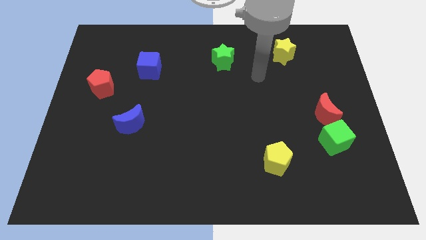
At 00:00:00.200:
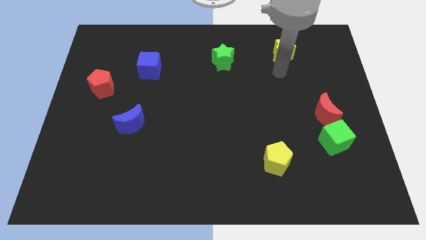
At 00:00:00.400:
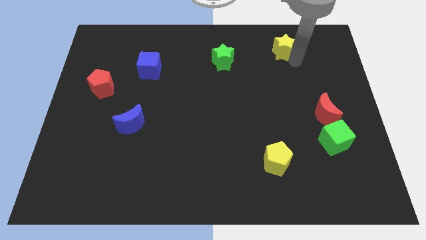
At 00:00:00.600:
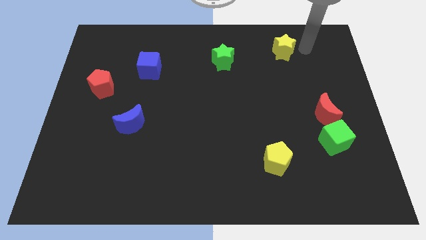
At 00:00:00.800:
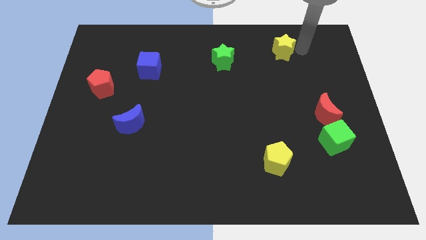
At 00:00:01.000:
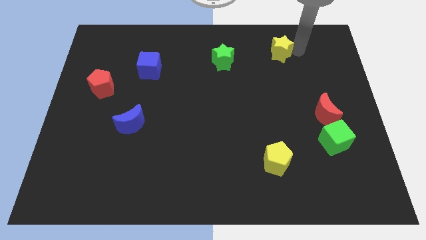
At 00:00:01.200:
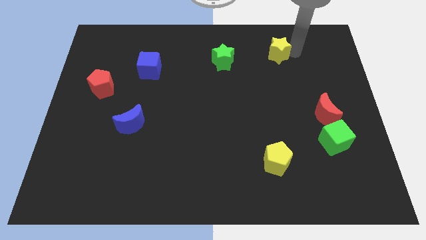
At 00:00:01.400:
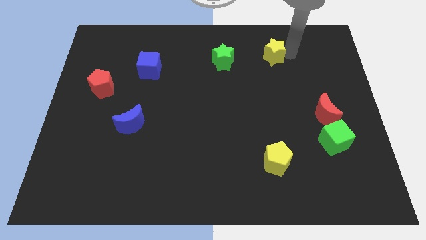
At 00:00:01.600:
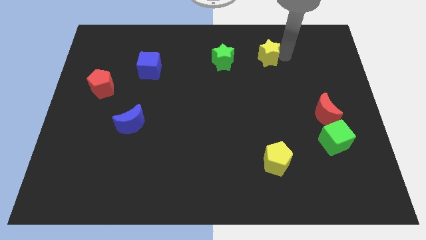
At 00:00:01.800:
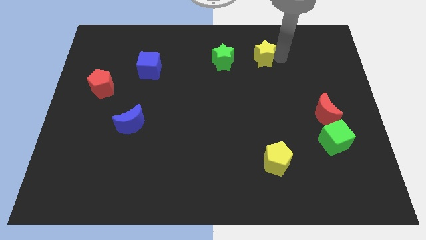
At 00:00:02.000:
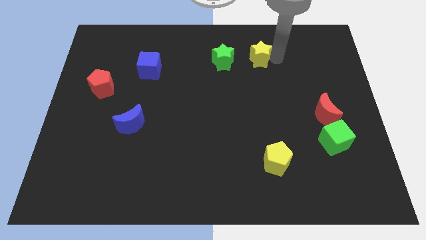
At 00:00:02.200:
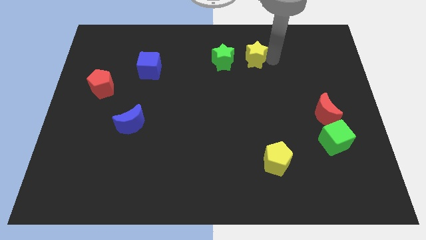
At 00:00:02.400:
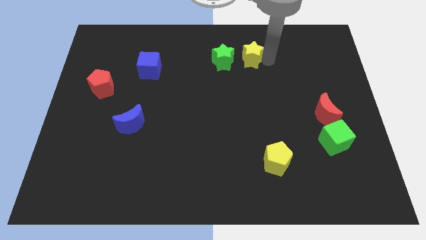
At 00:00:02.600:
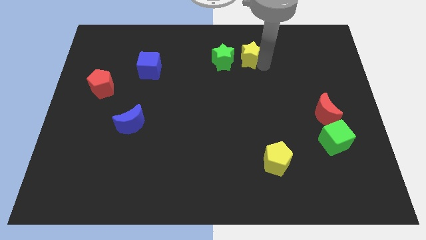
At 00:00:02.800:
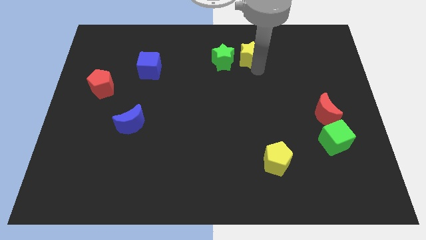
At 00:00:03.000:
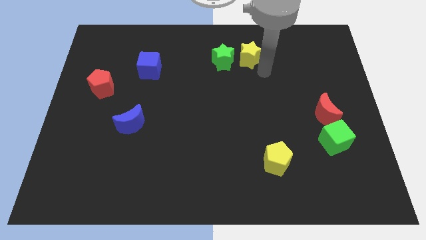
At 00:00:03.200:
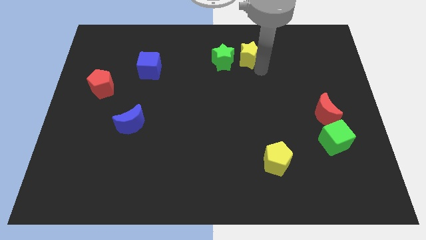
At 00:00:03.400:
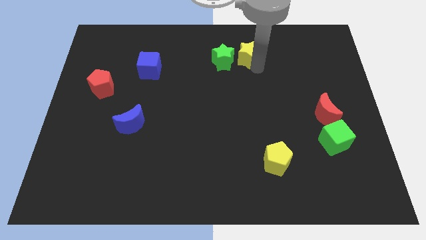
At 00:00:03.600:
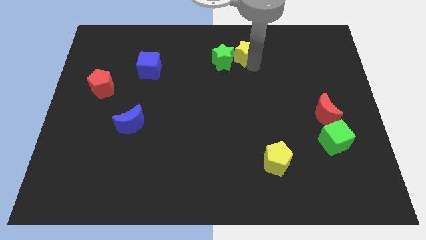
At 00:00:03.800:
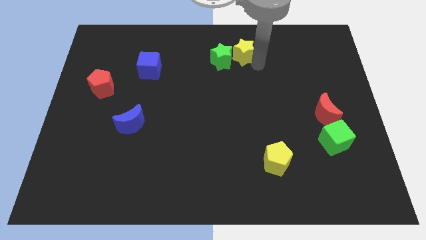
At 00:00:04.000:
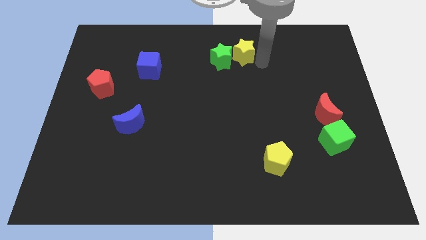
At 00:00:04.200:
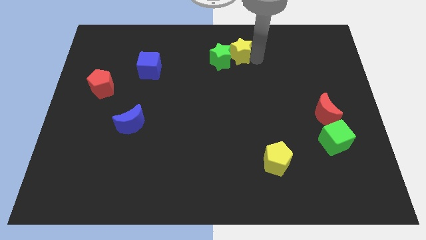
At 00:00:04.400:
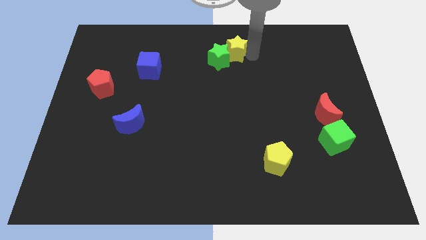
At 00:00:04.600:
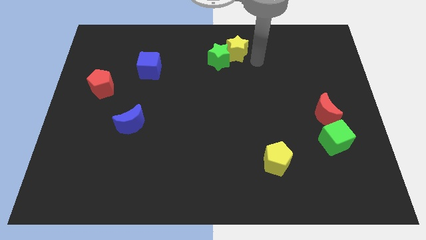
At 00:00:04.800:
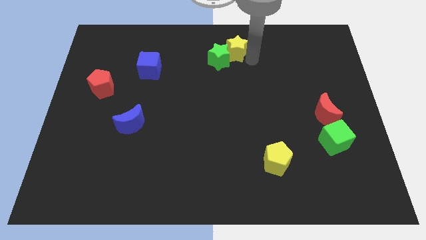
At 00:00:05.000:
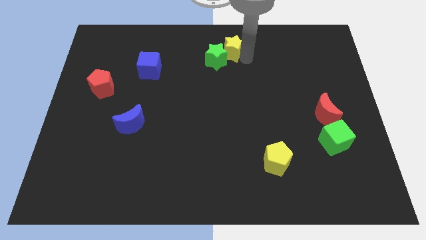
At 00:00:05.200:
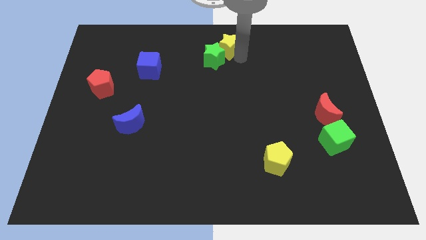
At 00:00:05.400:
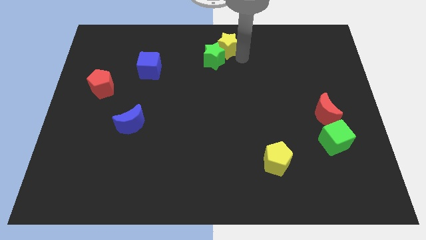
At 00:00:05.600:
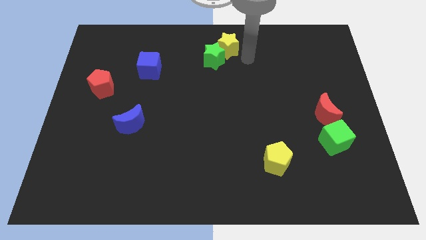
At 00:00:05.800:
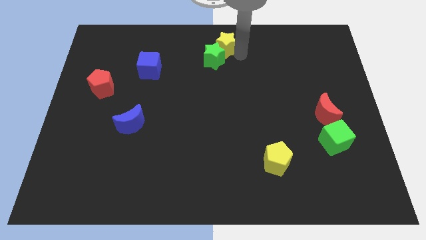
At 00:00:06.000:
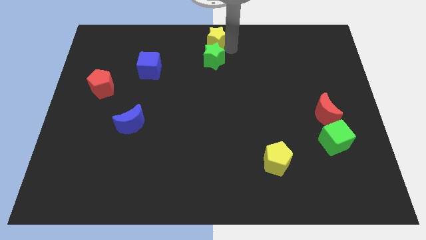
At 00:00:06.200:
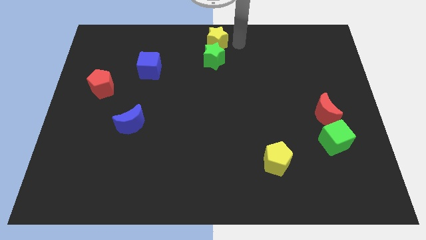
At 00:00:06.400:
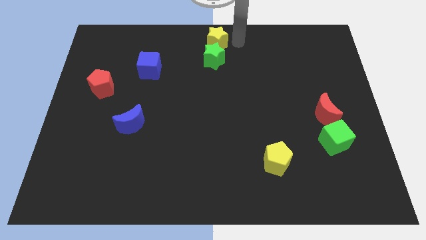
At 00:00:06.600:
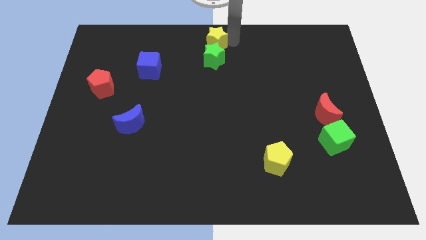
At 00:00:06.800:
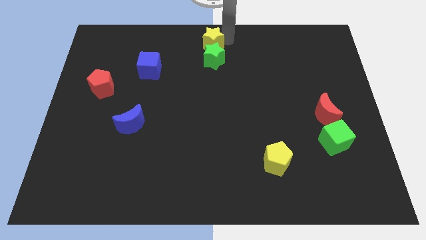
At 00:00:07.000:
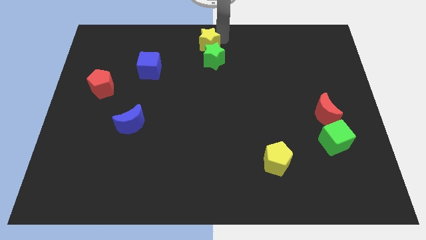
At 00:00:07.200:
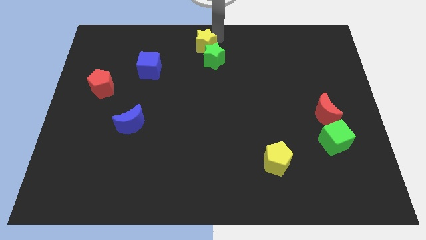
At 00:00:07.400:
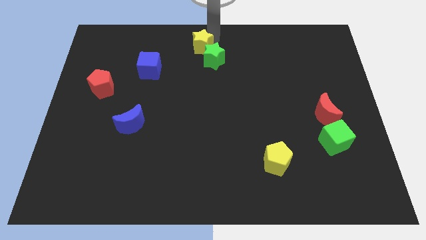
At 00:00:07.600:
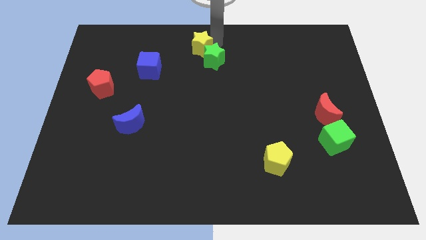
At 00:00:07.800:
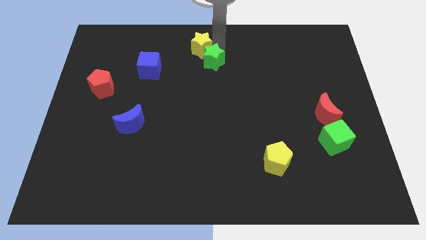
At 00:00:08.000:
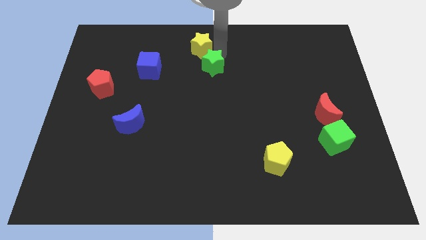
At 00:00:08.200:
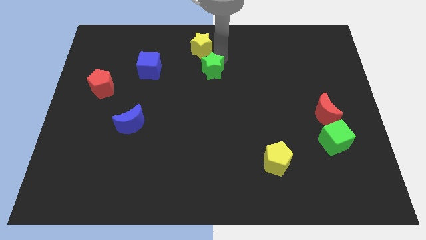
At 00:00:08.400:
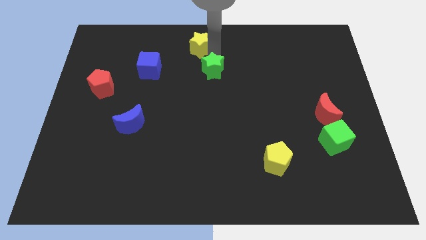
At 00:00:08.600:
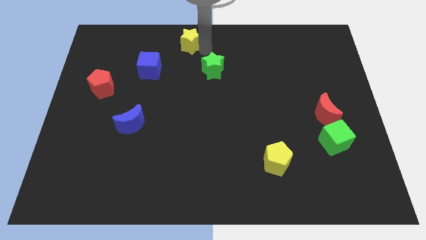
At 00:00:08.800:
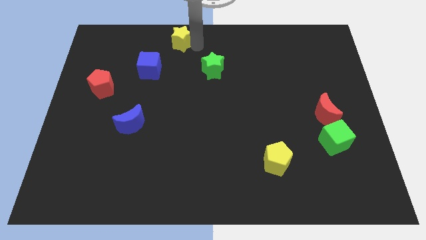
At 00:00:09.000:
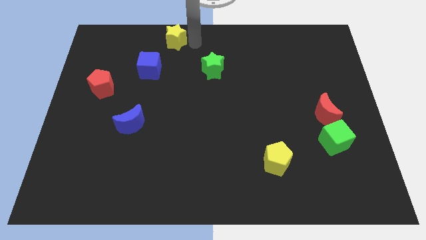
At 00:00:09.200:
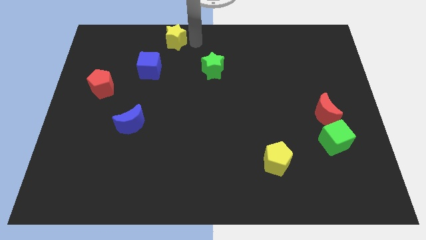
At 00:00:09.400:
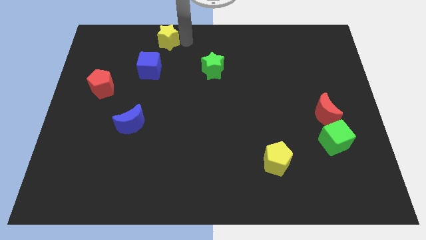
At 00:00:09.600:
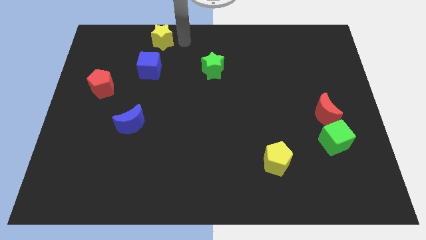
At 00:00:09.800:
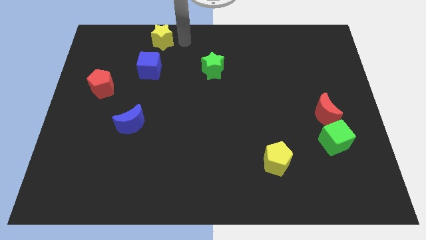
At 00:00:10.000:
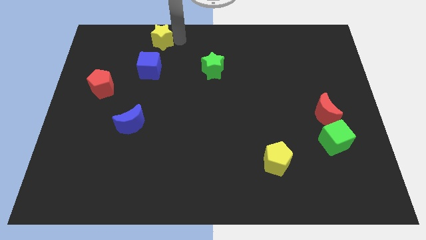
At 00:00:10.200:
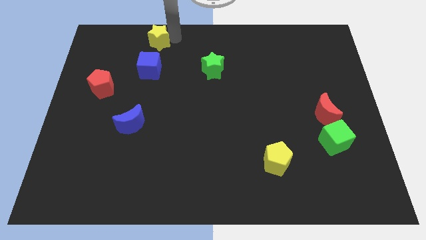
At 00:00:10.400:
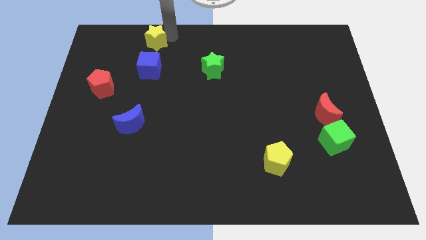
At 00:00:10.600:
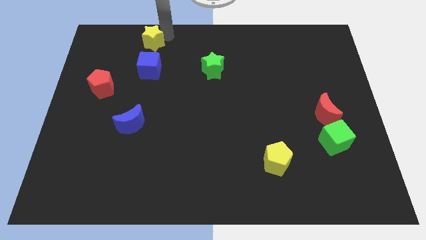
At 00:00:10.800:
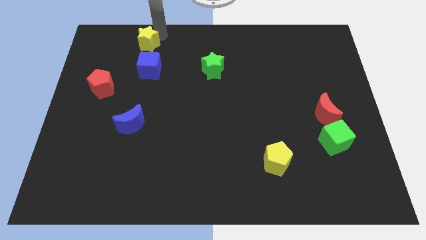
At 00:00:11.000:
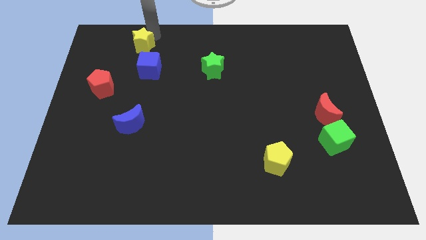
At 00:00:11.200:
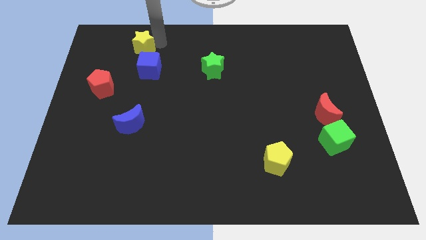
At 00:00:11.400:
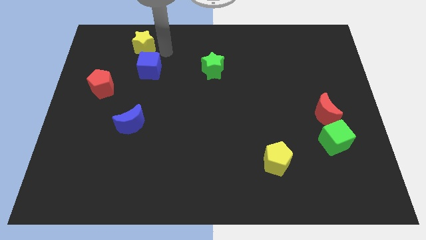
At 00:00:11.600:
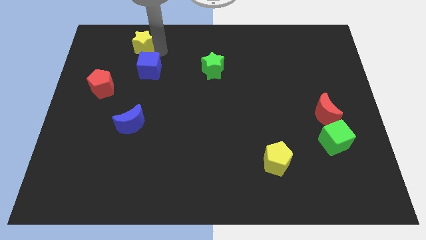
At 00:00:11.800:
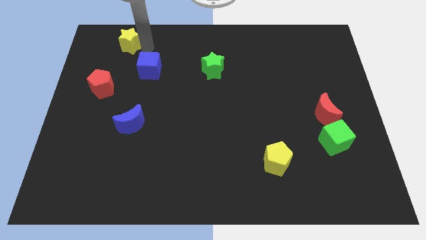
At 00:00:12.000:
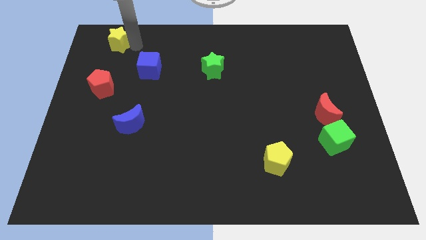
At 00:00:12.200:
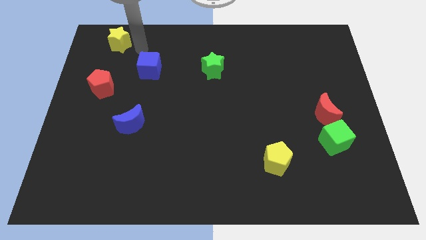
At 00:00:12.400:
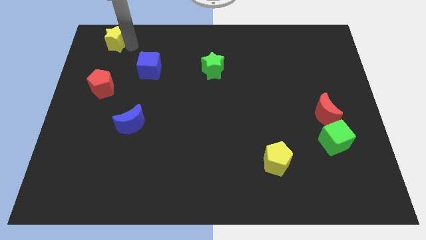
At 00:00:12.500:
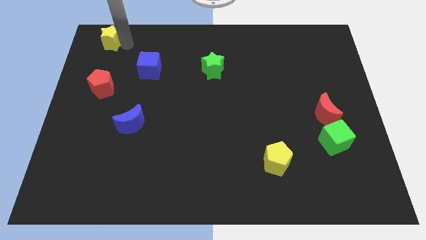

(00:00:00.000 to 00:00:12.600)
slide the yellow star to the upper left corner

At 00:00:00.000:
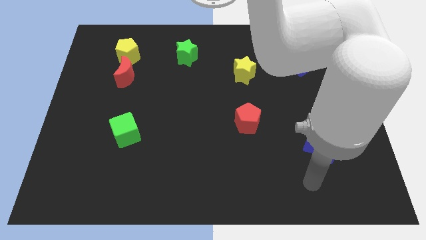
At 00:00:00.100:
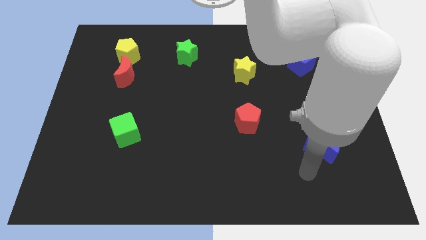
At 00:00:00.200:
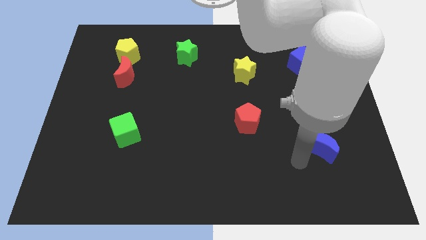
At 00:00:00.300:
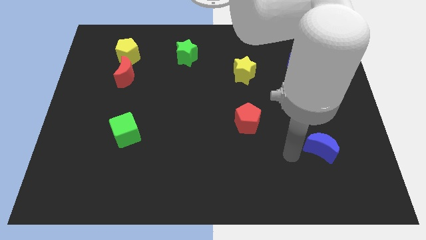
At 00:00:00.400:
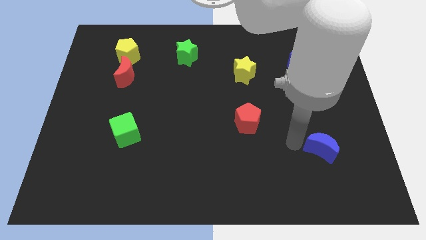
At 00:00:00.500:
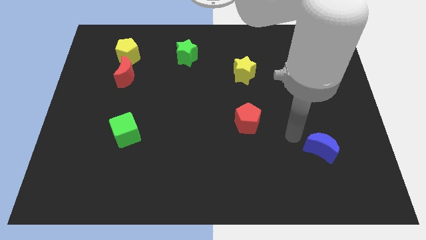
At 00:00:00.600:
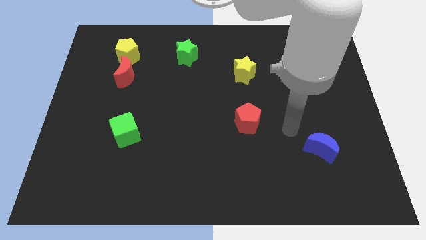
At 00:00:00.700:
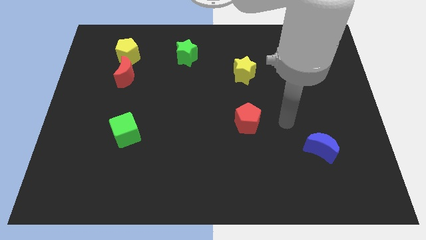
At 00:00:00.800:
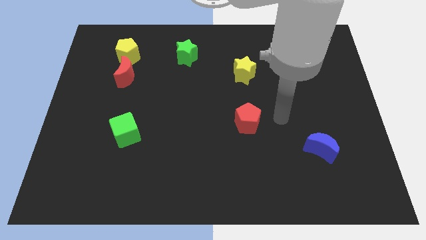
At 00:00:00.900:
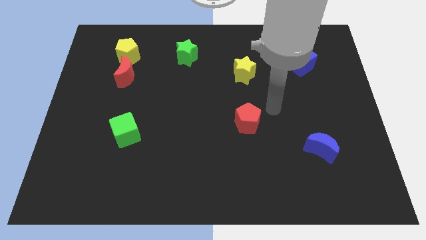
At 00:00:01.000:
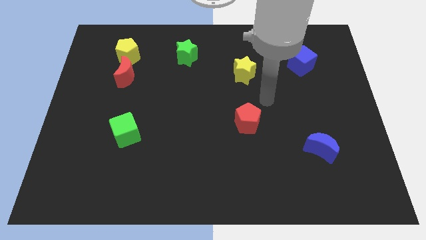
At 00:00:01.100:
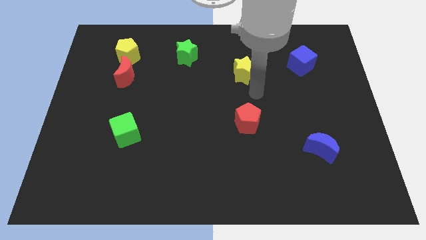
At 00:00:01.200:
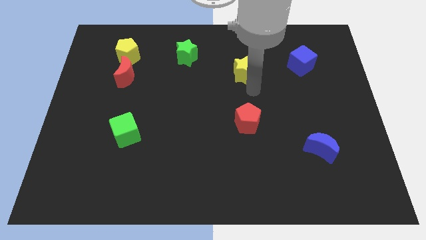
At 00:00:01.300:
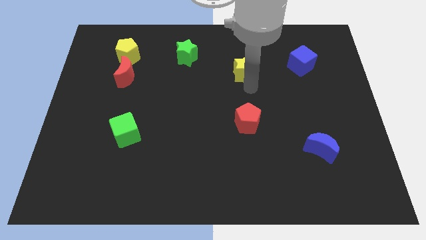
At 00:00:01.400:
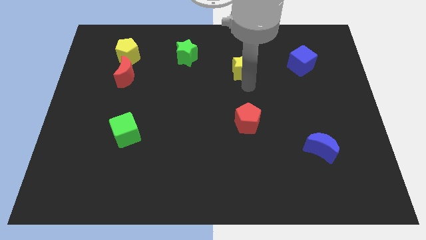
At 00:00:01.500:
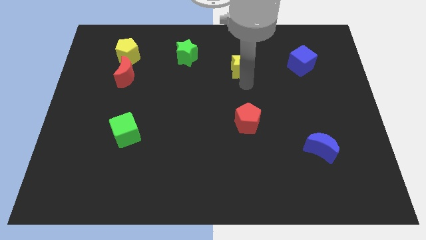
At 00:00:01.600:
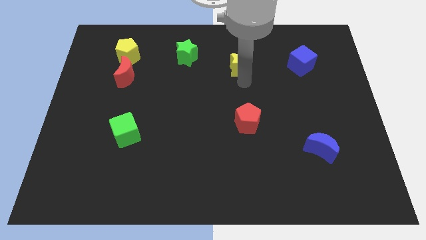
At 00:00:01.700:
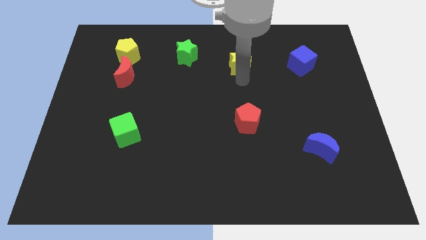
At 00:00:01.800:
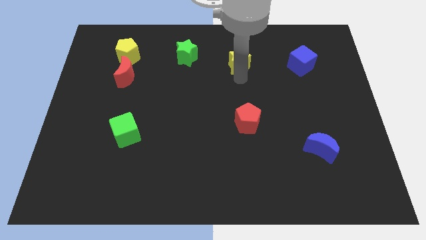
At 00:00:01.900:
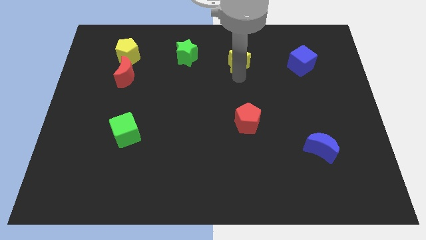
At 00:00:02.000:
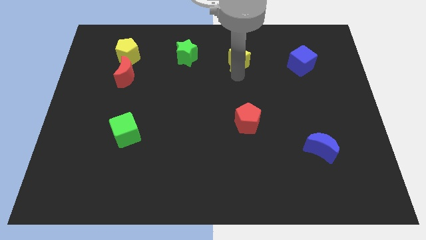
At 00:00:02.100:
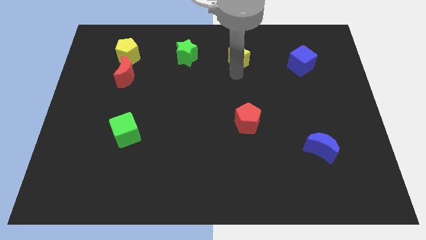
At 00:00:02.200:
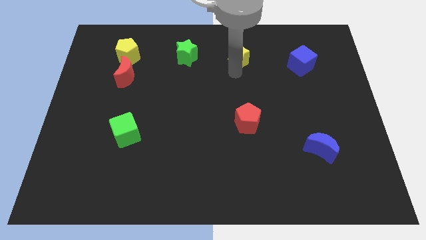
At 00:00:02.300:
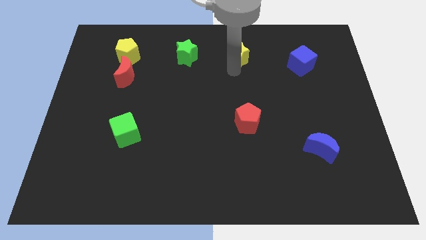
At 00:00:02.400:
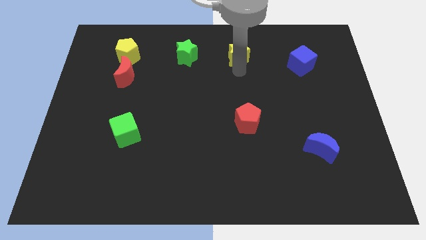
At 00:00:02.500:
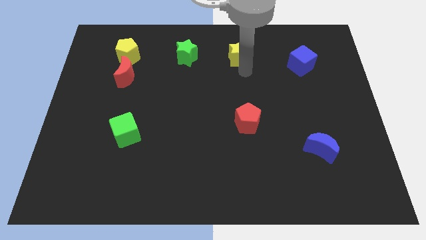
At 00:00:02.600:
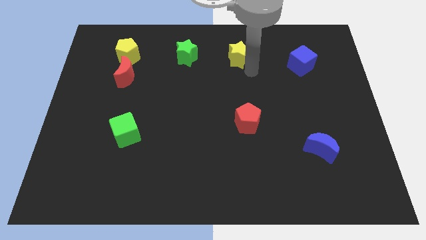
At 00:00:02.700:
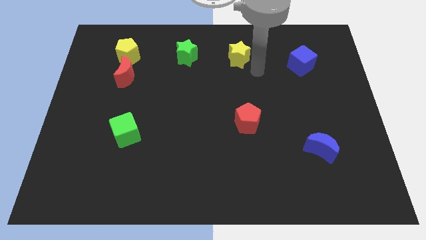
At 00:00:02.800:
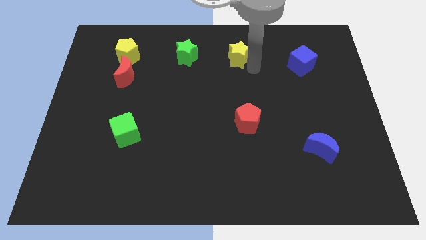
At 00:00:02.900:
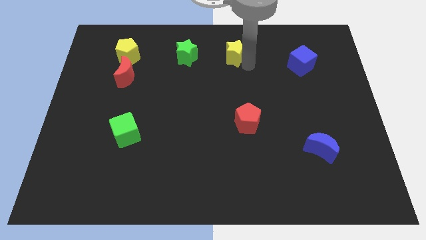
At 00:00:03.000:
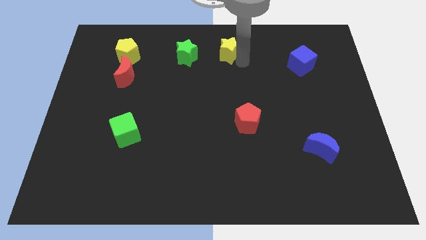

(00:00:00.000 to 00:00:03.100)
put the yellow star to the top side
